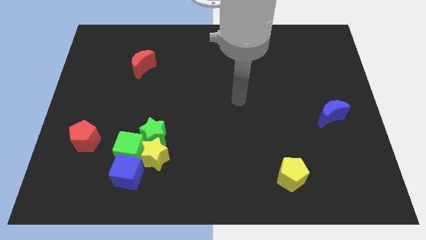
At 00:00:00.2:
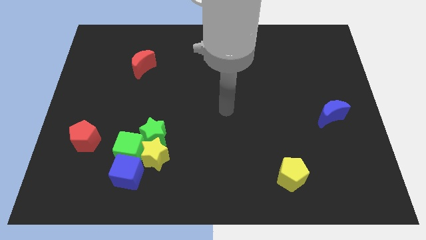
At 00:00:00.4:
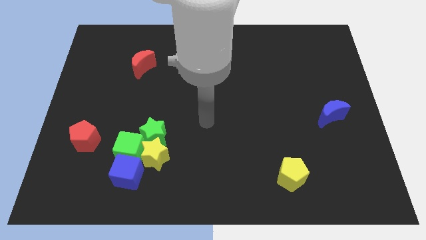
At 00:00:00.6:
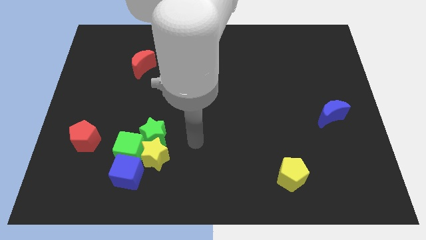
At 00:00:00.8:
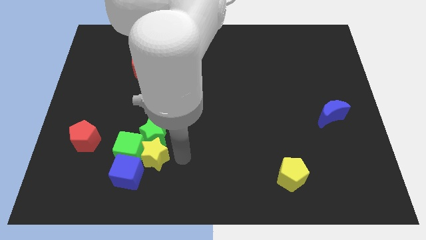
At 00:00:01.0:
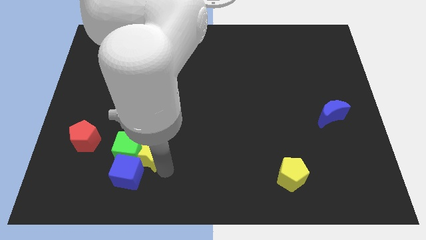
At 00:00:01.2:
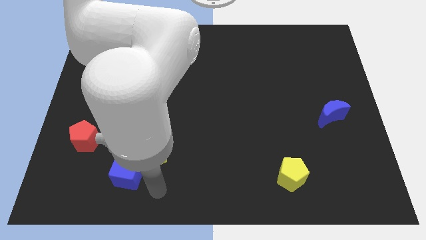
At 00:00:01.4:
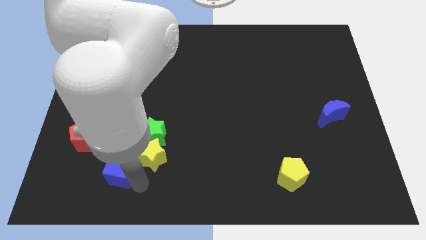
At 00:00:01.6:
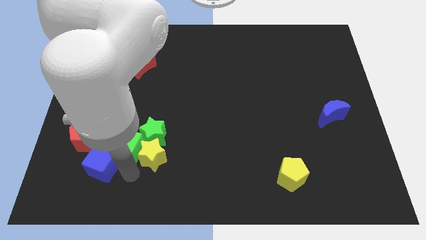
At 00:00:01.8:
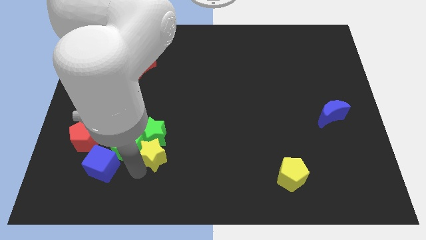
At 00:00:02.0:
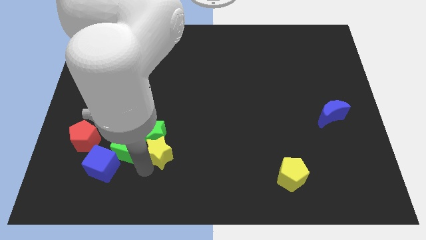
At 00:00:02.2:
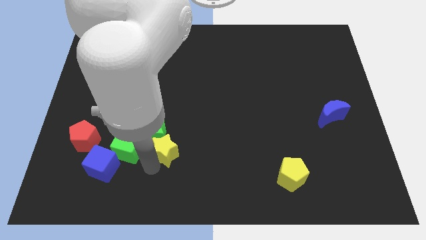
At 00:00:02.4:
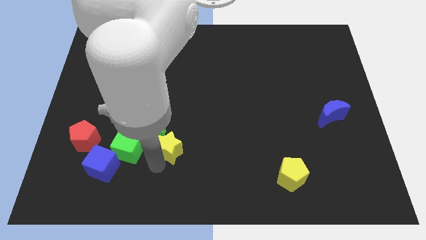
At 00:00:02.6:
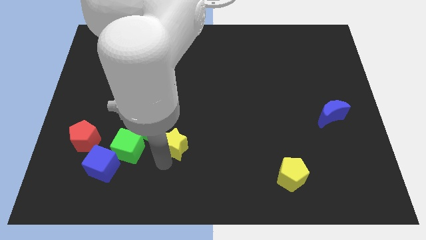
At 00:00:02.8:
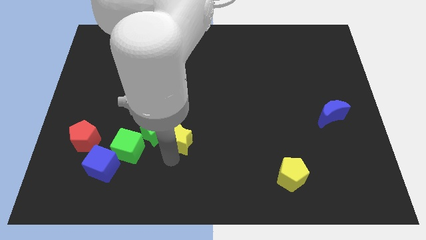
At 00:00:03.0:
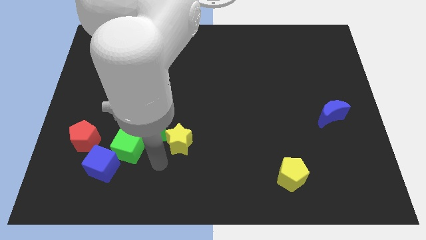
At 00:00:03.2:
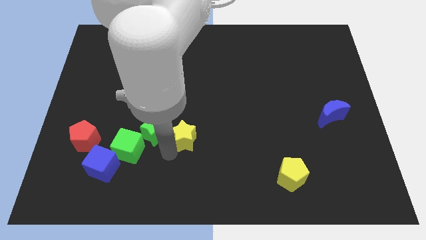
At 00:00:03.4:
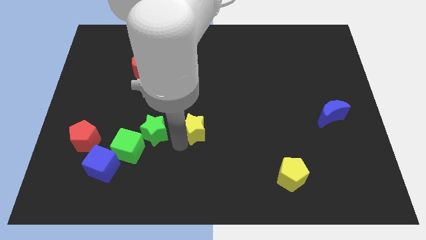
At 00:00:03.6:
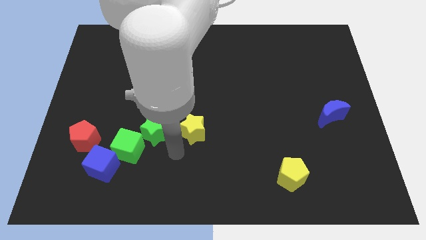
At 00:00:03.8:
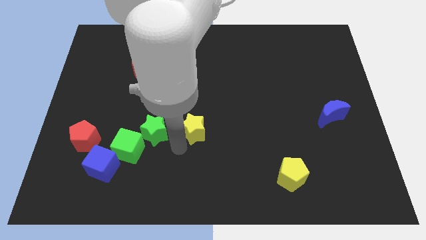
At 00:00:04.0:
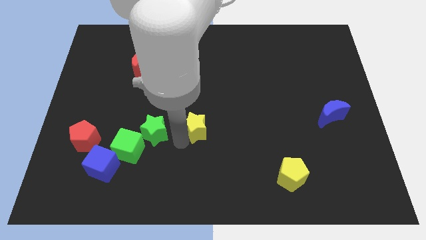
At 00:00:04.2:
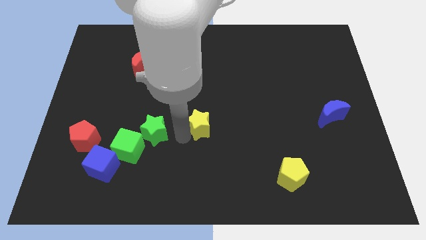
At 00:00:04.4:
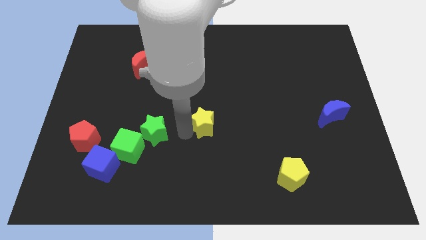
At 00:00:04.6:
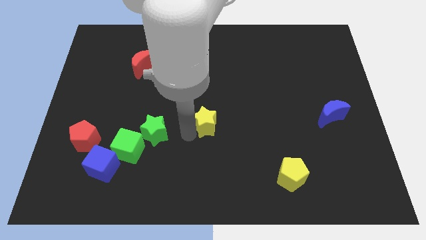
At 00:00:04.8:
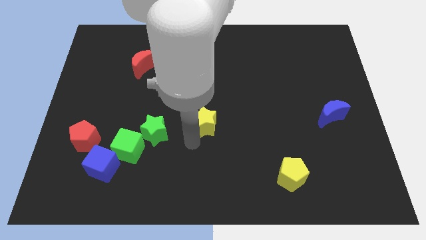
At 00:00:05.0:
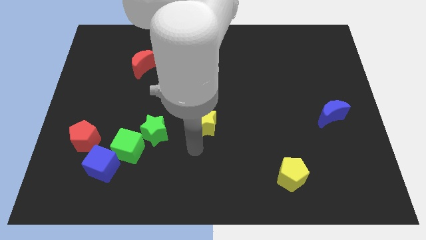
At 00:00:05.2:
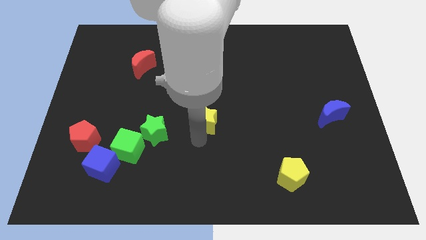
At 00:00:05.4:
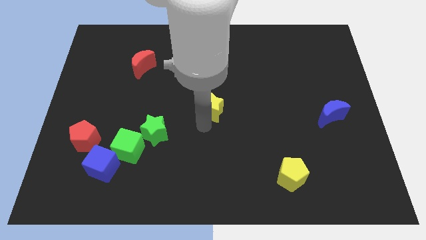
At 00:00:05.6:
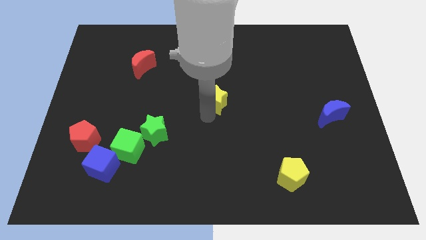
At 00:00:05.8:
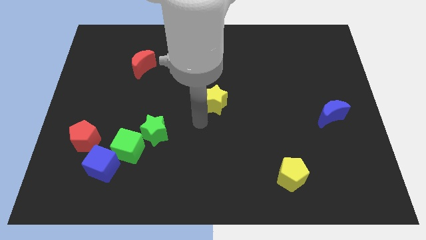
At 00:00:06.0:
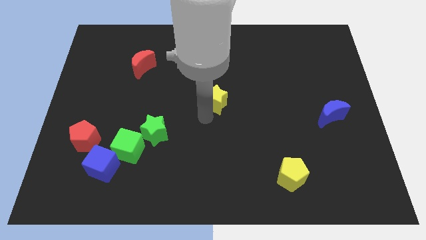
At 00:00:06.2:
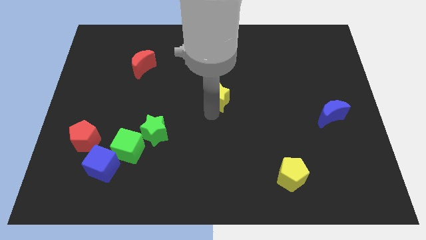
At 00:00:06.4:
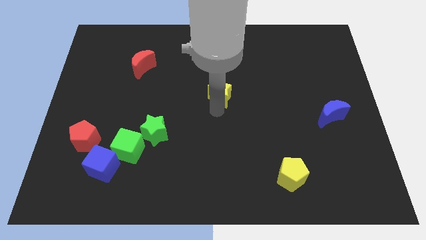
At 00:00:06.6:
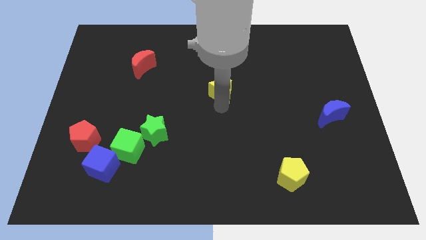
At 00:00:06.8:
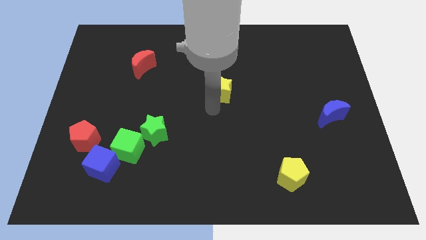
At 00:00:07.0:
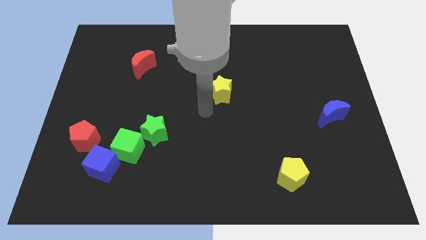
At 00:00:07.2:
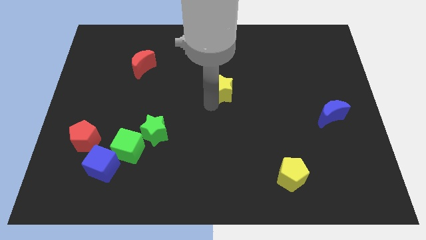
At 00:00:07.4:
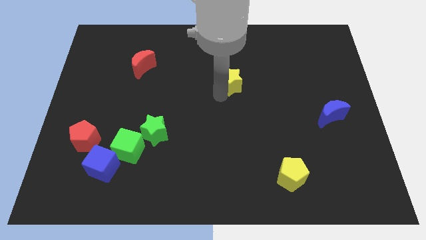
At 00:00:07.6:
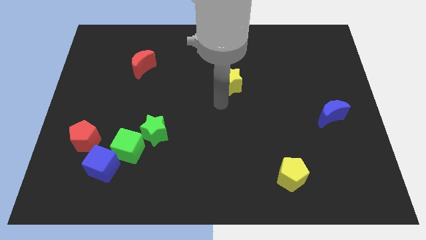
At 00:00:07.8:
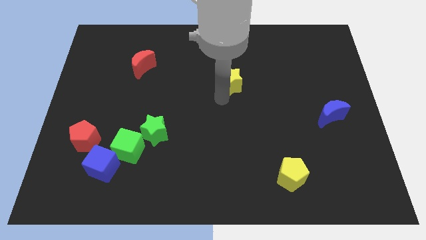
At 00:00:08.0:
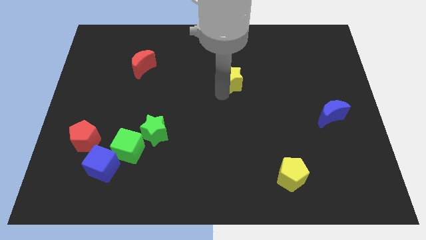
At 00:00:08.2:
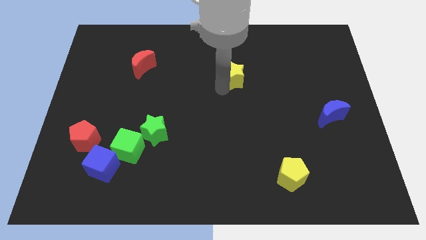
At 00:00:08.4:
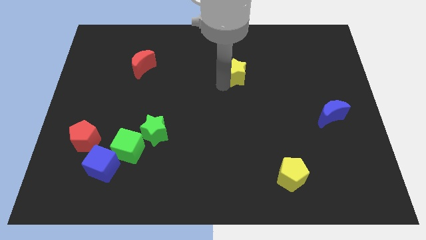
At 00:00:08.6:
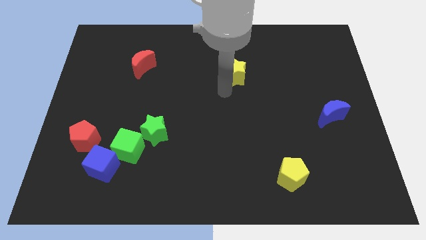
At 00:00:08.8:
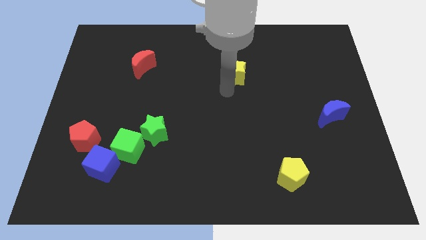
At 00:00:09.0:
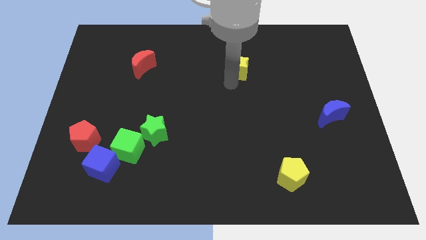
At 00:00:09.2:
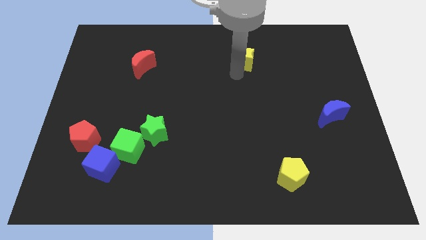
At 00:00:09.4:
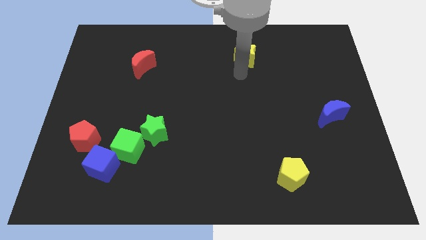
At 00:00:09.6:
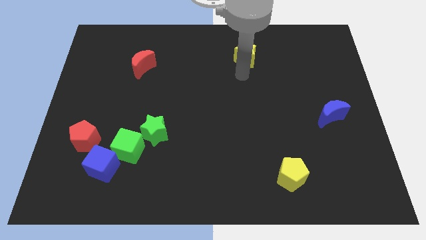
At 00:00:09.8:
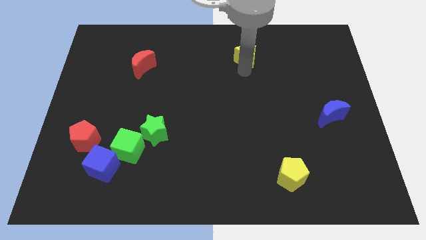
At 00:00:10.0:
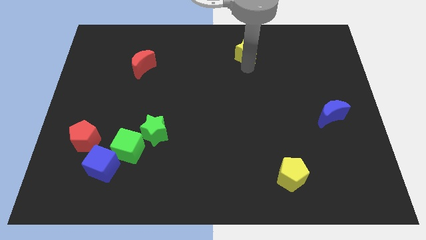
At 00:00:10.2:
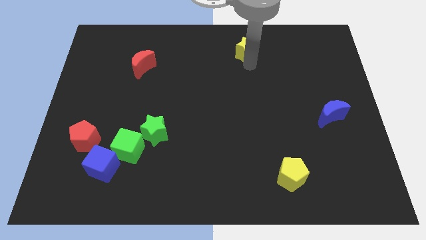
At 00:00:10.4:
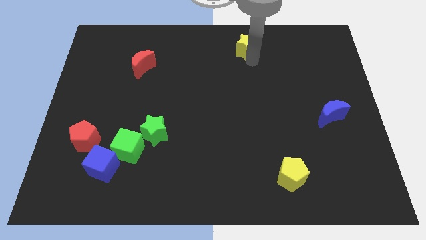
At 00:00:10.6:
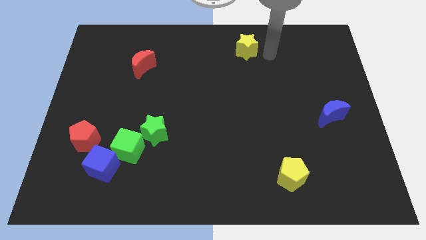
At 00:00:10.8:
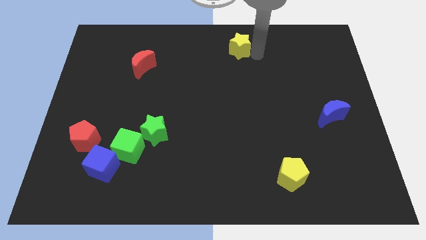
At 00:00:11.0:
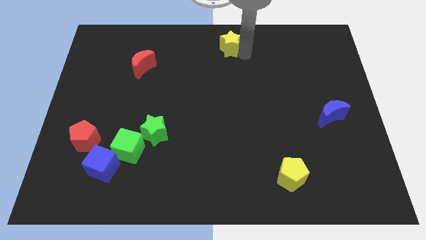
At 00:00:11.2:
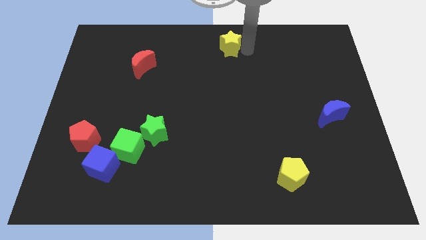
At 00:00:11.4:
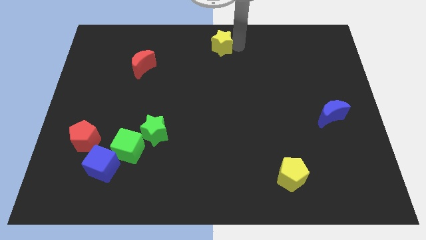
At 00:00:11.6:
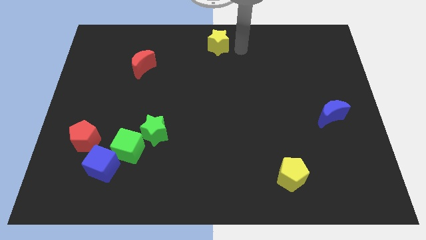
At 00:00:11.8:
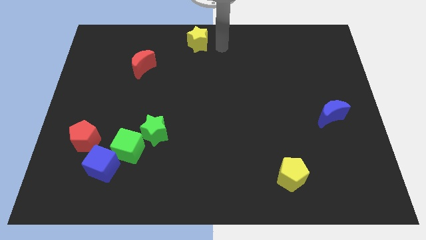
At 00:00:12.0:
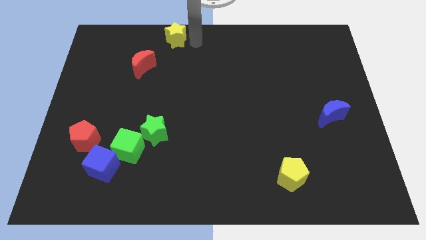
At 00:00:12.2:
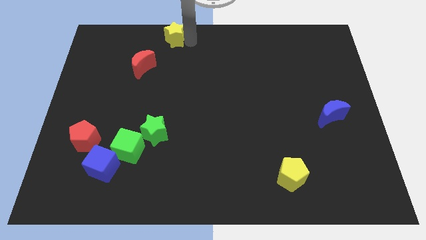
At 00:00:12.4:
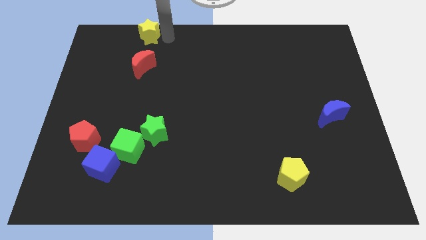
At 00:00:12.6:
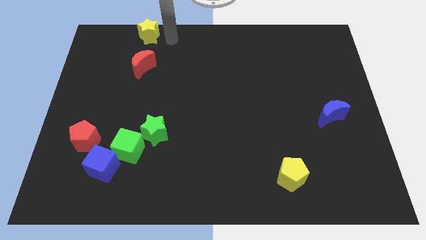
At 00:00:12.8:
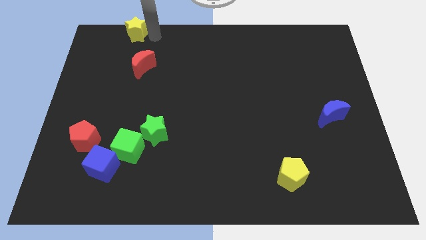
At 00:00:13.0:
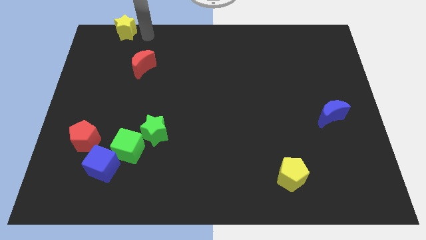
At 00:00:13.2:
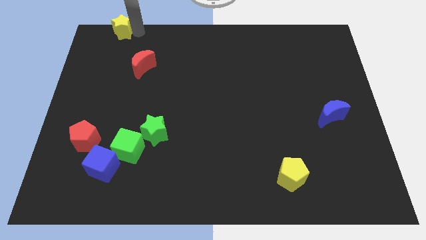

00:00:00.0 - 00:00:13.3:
push the yellow star to the top left

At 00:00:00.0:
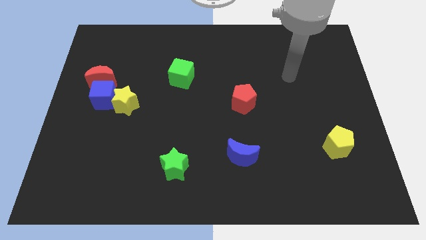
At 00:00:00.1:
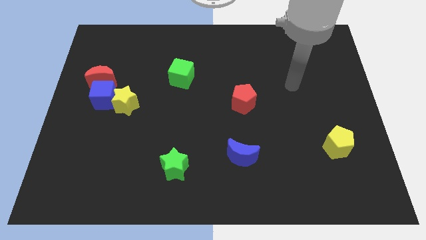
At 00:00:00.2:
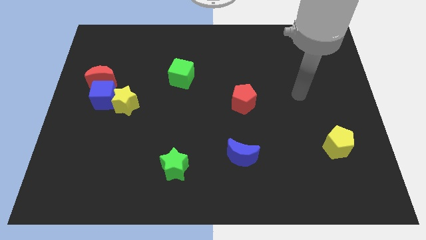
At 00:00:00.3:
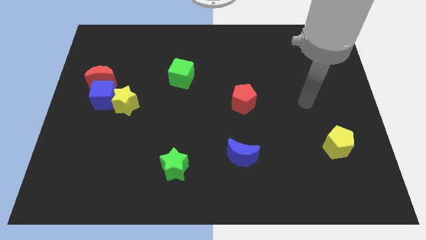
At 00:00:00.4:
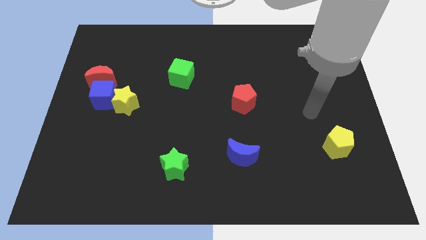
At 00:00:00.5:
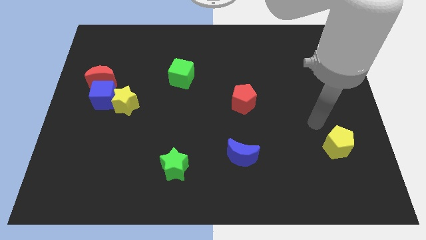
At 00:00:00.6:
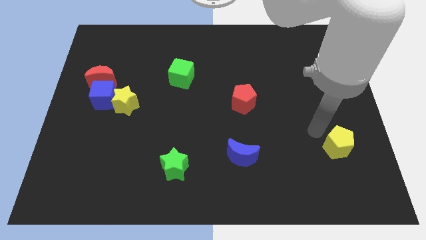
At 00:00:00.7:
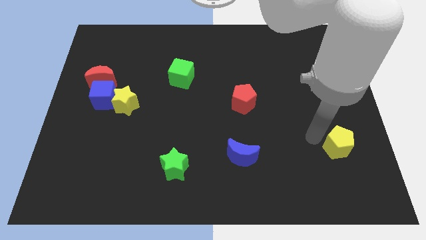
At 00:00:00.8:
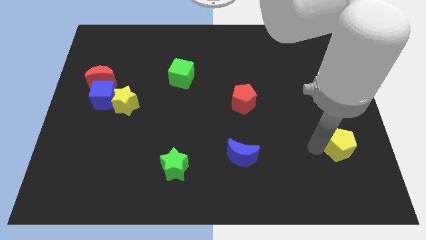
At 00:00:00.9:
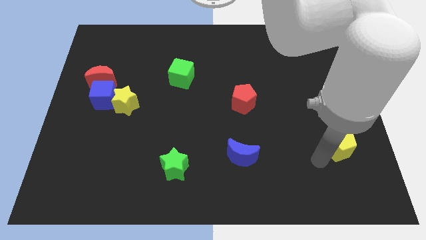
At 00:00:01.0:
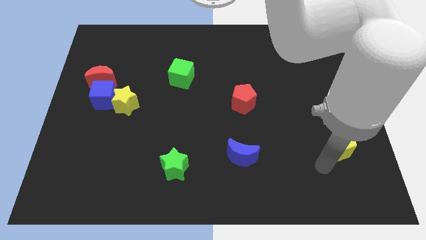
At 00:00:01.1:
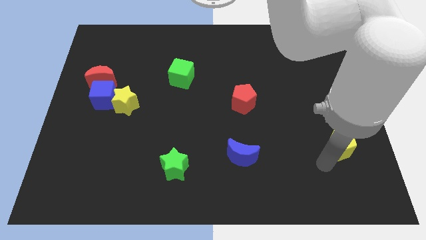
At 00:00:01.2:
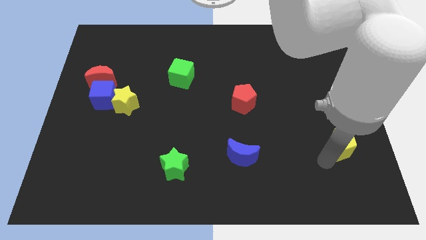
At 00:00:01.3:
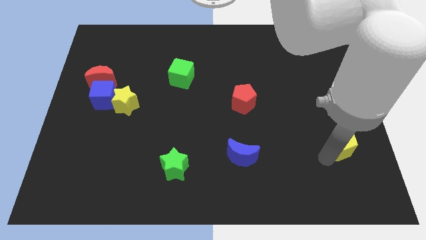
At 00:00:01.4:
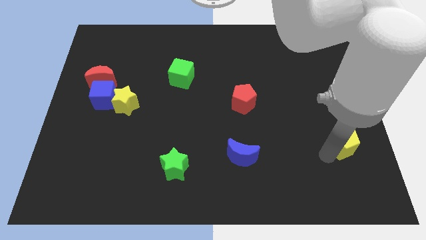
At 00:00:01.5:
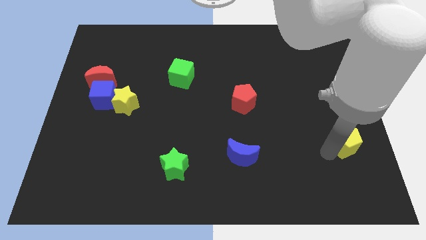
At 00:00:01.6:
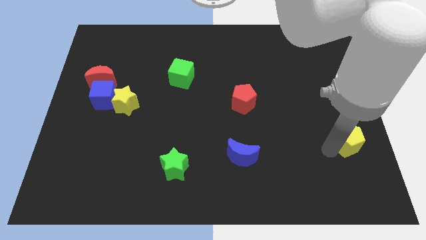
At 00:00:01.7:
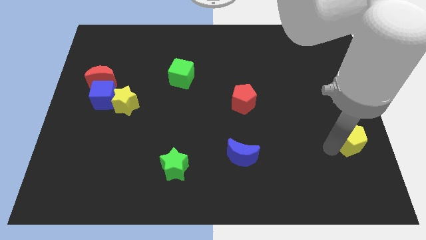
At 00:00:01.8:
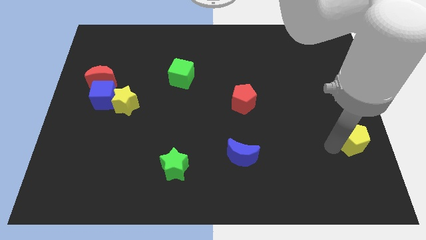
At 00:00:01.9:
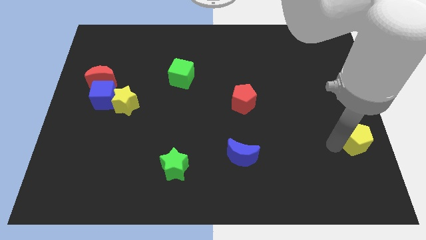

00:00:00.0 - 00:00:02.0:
move the yellow pentagon to the right side of the board
